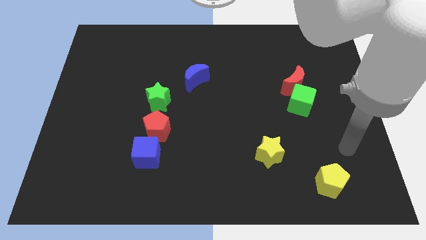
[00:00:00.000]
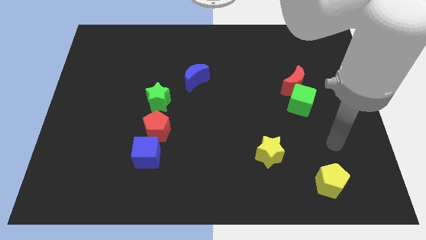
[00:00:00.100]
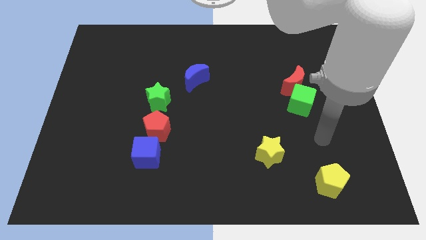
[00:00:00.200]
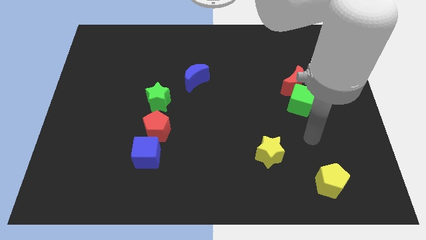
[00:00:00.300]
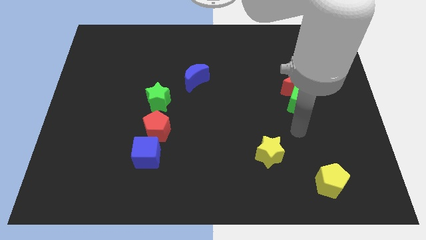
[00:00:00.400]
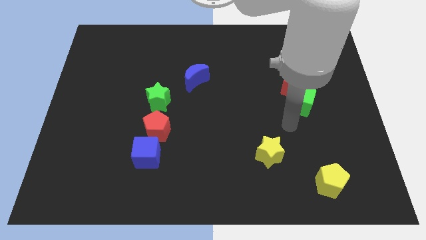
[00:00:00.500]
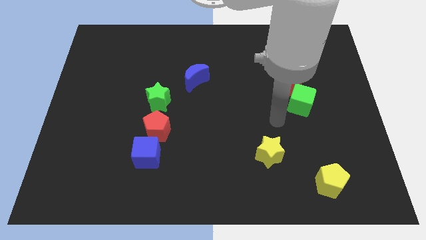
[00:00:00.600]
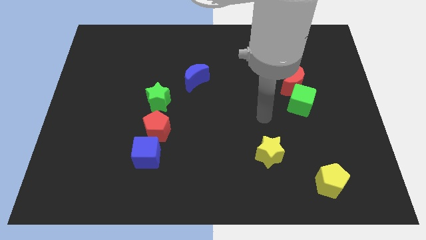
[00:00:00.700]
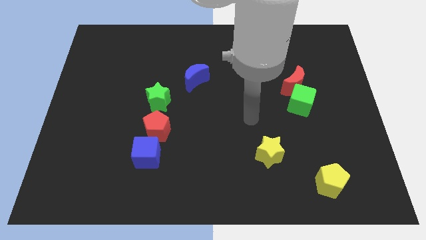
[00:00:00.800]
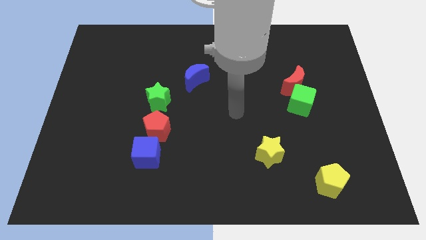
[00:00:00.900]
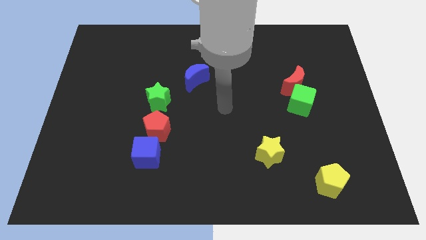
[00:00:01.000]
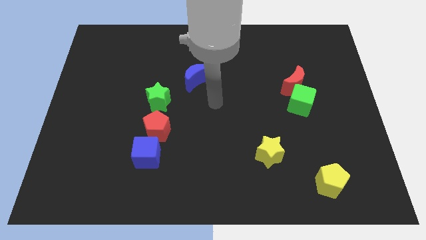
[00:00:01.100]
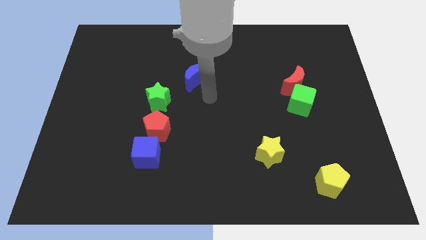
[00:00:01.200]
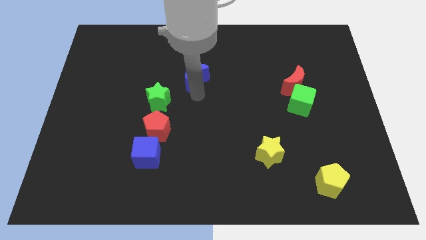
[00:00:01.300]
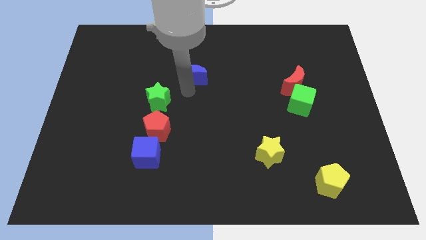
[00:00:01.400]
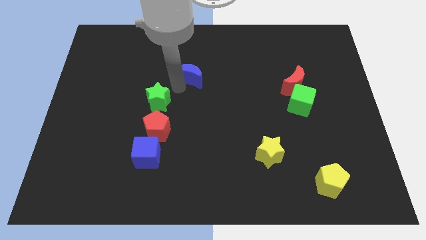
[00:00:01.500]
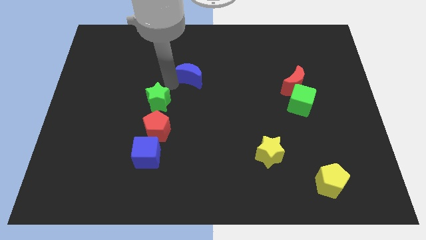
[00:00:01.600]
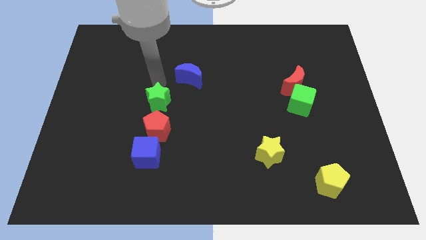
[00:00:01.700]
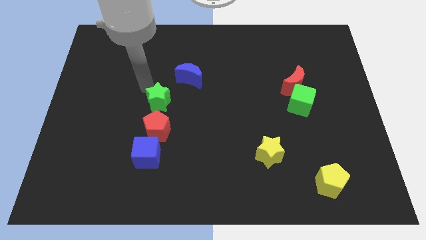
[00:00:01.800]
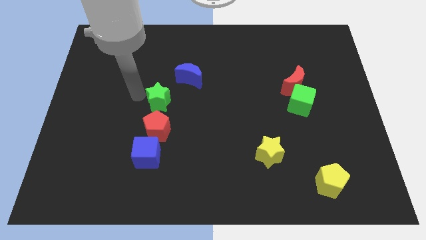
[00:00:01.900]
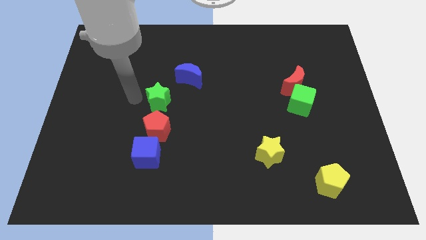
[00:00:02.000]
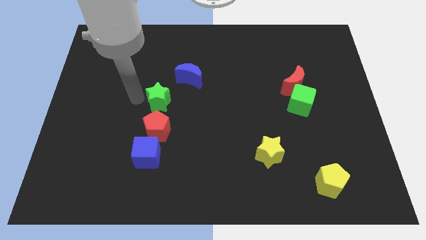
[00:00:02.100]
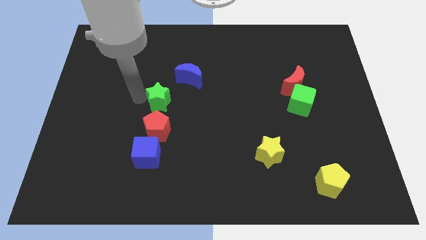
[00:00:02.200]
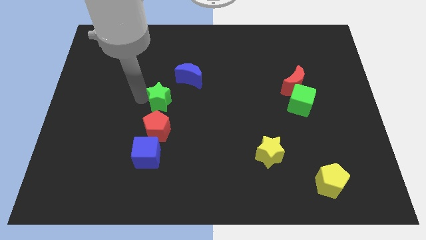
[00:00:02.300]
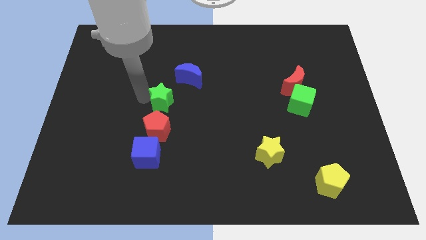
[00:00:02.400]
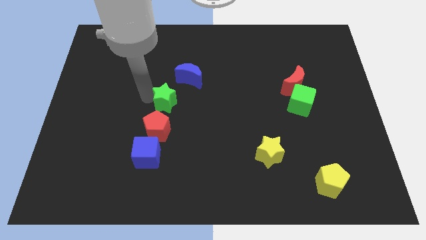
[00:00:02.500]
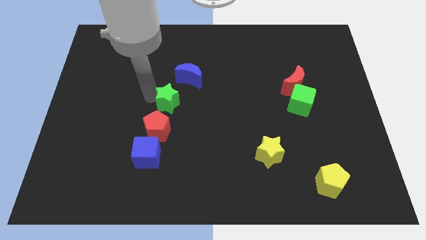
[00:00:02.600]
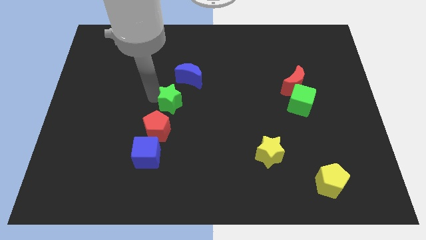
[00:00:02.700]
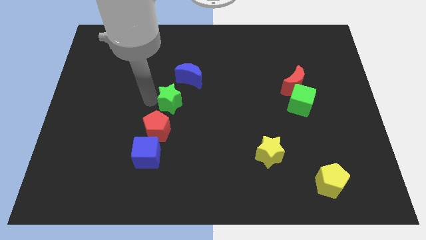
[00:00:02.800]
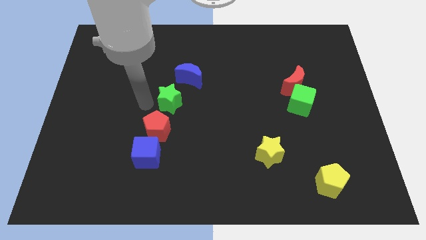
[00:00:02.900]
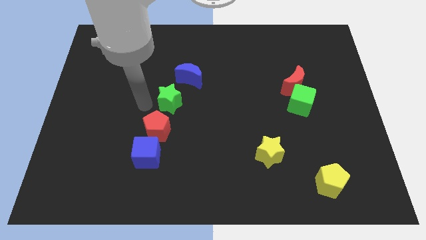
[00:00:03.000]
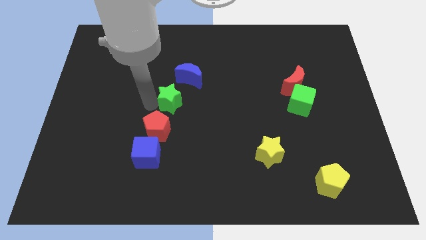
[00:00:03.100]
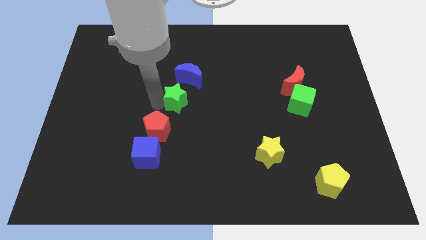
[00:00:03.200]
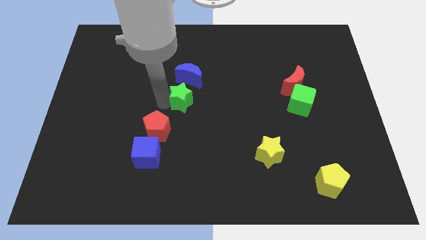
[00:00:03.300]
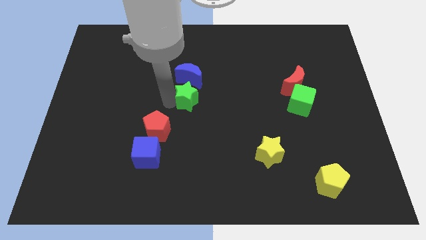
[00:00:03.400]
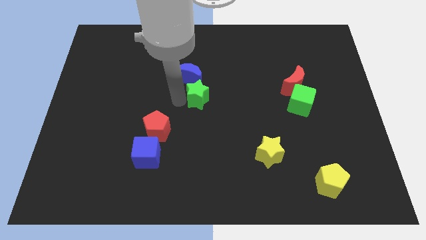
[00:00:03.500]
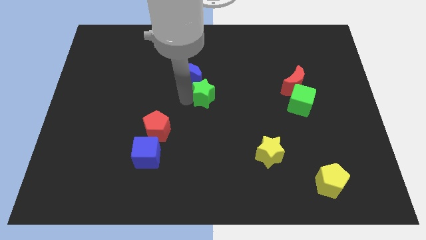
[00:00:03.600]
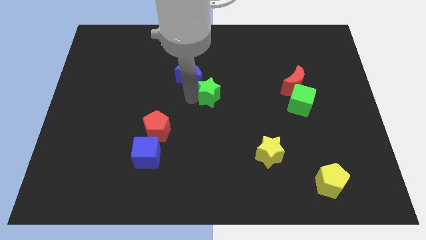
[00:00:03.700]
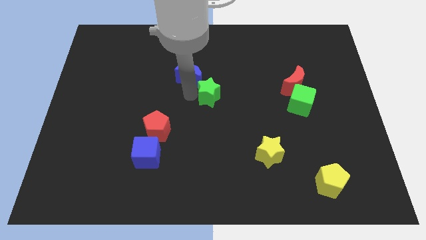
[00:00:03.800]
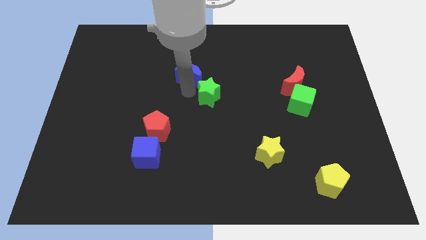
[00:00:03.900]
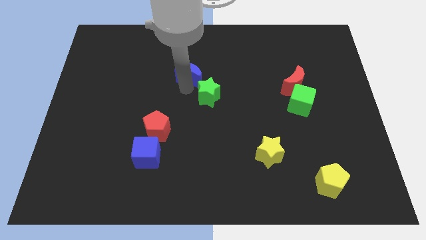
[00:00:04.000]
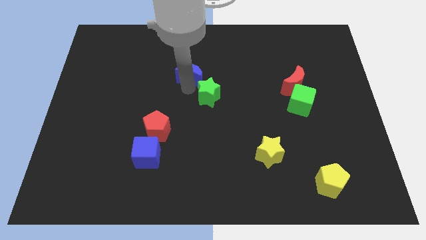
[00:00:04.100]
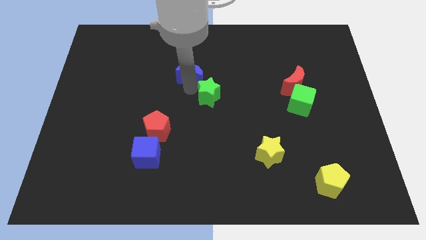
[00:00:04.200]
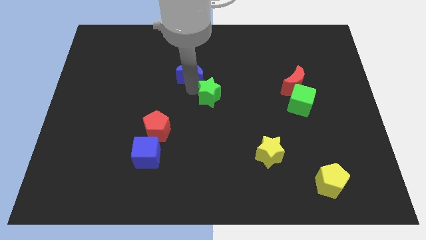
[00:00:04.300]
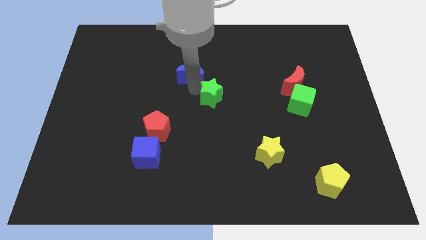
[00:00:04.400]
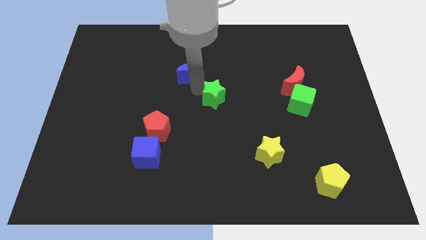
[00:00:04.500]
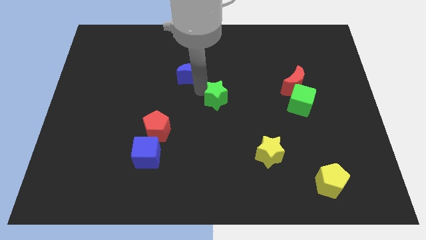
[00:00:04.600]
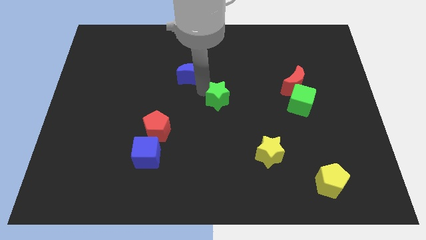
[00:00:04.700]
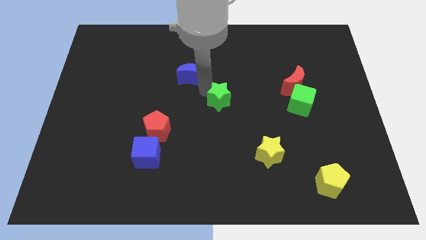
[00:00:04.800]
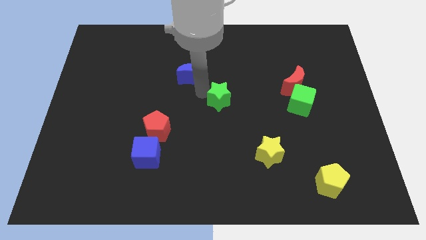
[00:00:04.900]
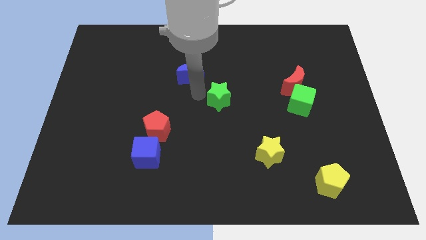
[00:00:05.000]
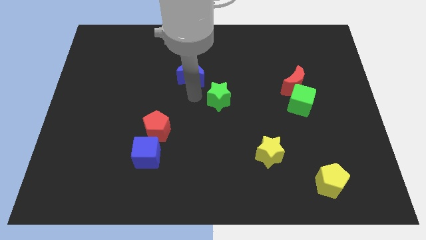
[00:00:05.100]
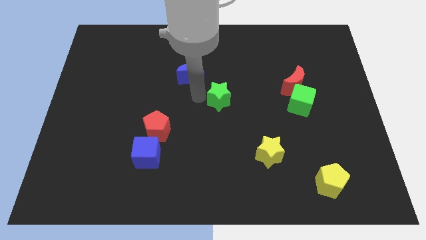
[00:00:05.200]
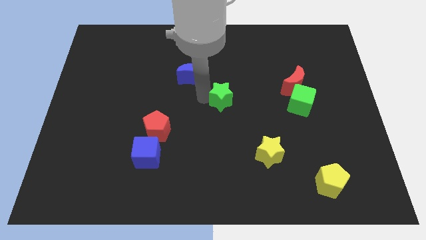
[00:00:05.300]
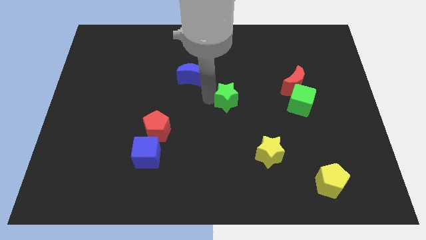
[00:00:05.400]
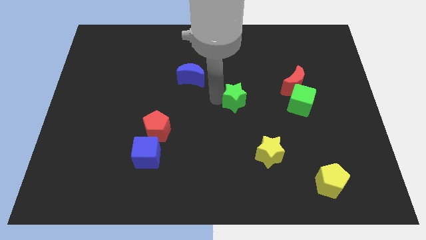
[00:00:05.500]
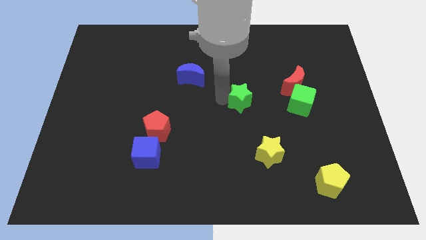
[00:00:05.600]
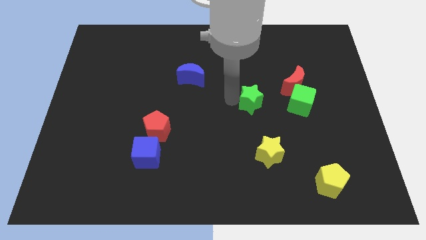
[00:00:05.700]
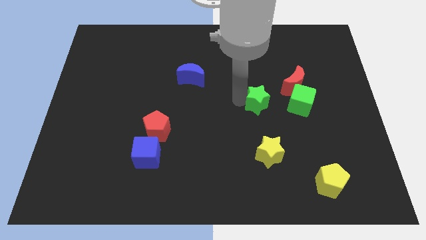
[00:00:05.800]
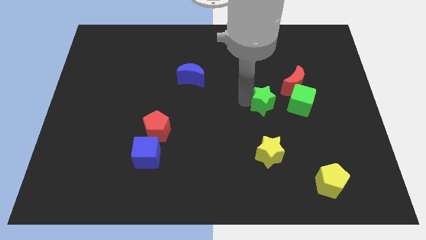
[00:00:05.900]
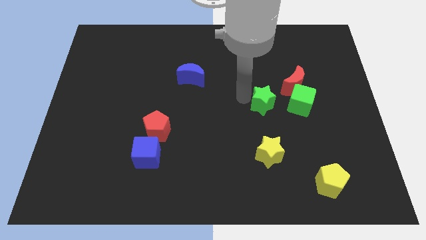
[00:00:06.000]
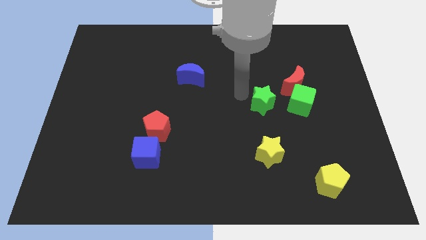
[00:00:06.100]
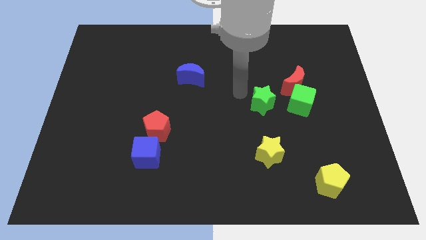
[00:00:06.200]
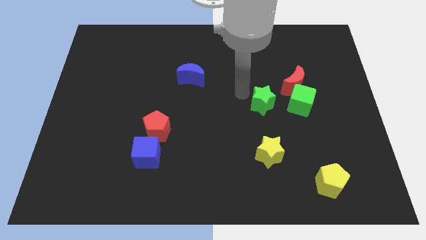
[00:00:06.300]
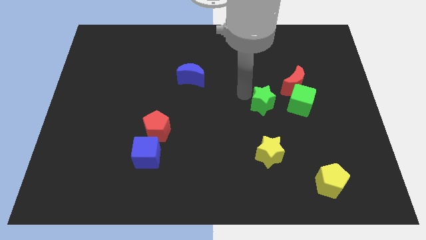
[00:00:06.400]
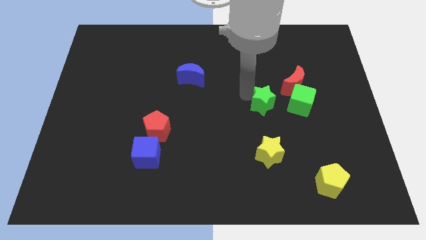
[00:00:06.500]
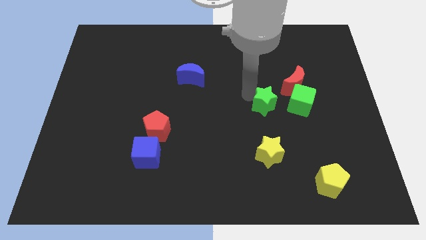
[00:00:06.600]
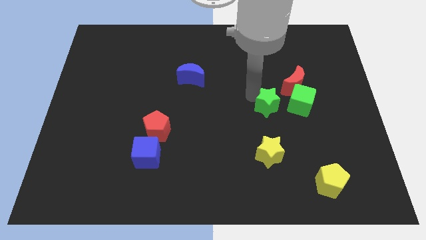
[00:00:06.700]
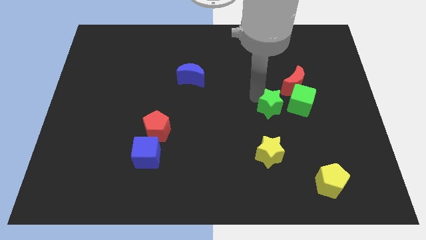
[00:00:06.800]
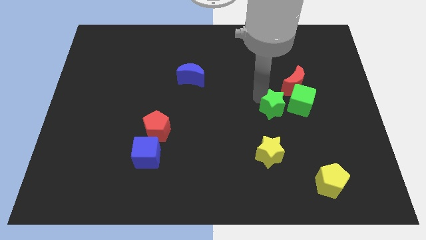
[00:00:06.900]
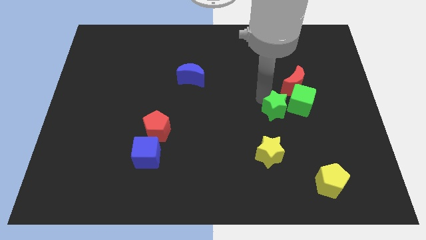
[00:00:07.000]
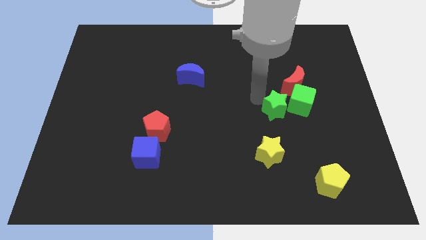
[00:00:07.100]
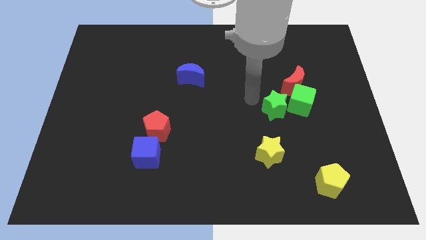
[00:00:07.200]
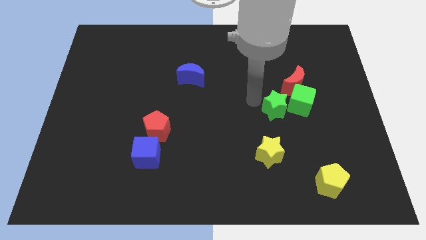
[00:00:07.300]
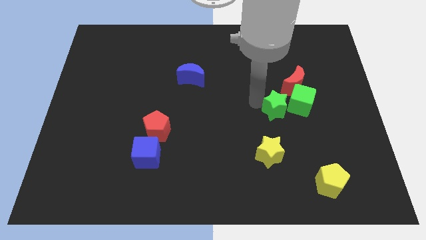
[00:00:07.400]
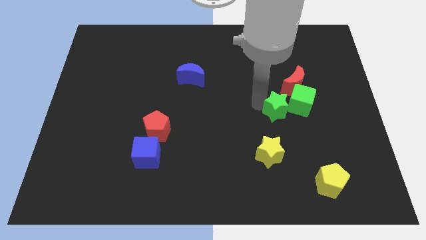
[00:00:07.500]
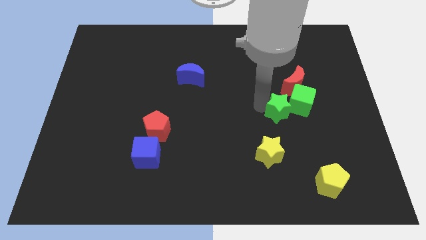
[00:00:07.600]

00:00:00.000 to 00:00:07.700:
put the green star to the bottom of the red moon
